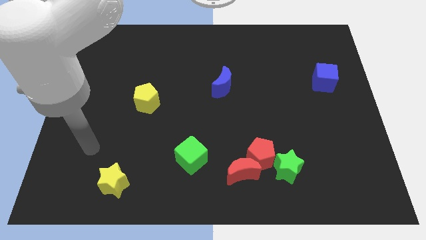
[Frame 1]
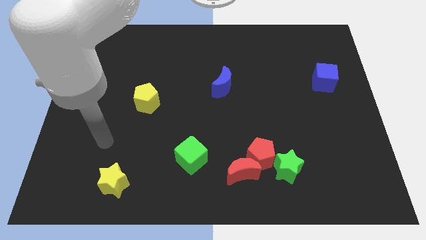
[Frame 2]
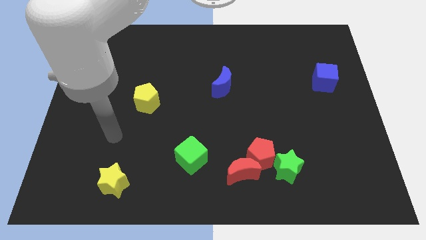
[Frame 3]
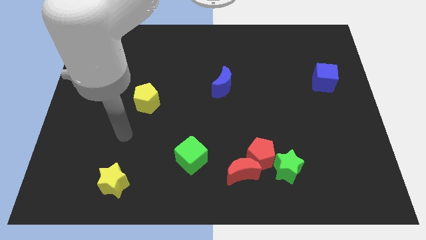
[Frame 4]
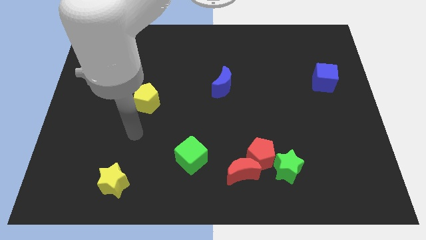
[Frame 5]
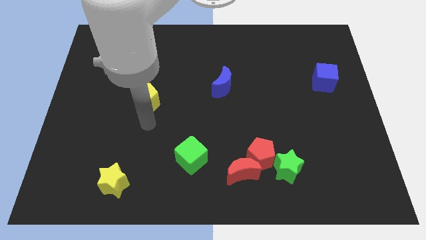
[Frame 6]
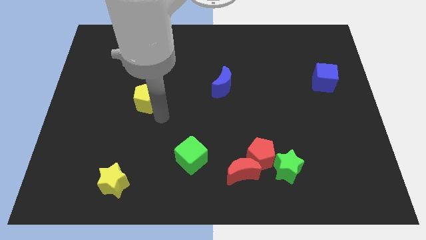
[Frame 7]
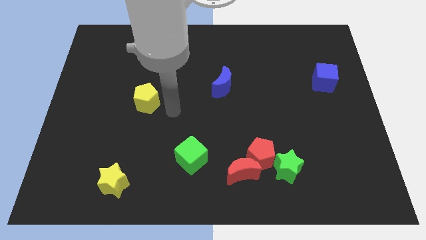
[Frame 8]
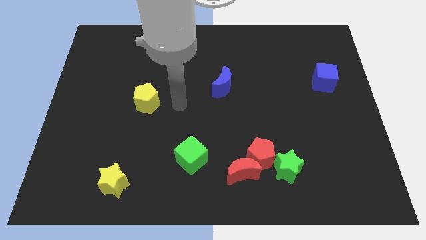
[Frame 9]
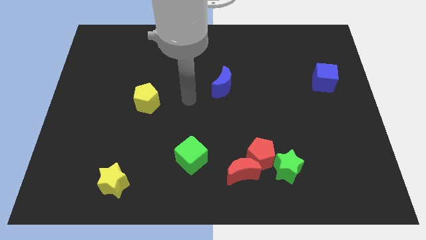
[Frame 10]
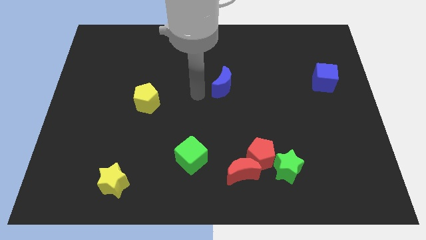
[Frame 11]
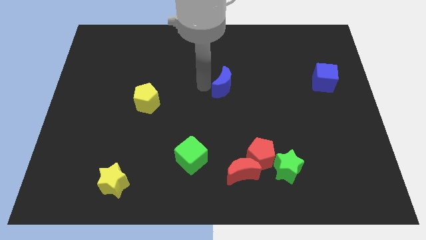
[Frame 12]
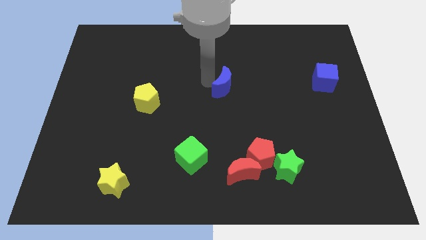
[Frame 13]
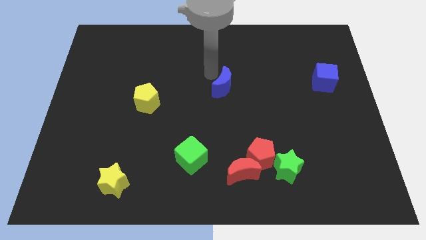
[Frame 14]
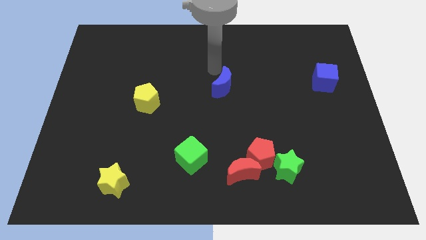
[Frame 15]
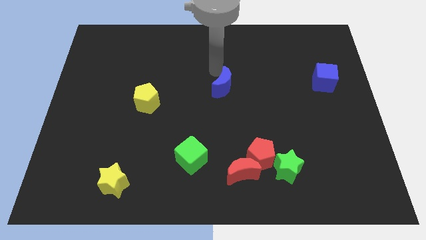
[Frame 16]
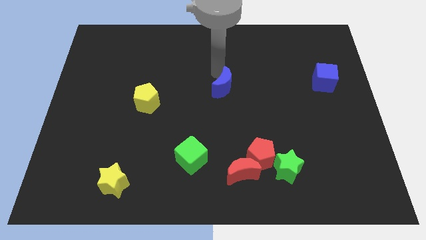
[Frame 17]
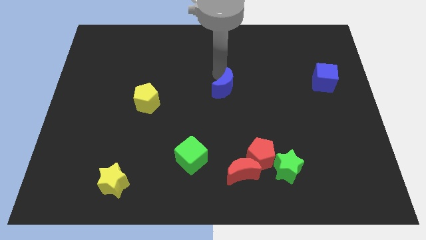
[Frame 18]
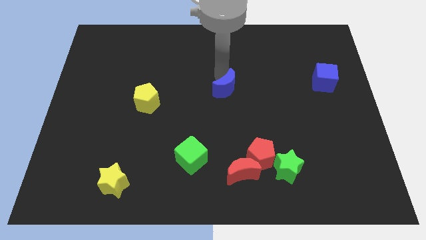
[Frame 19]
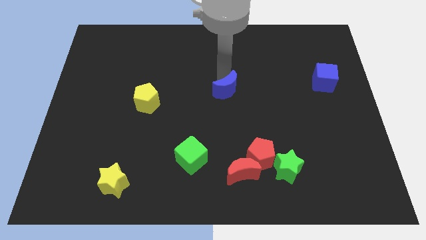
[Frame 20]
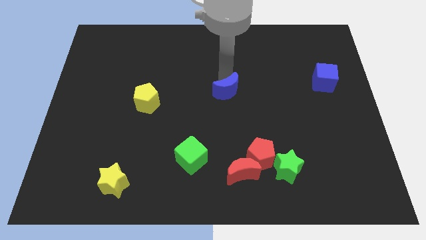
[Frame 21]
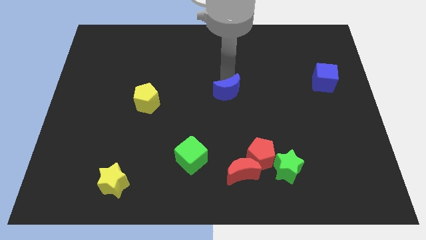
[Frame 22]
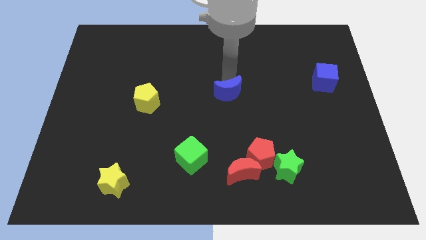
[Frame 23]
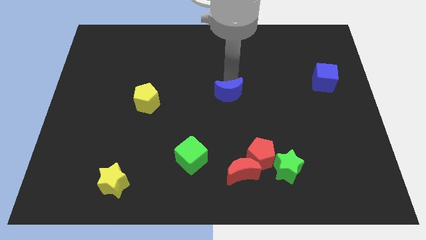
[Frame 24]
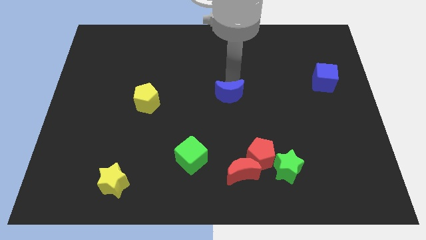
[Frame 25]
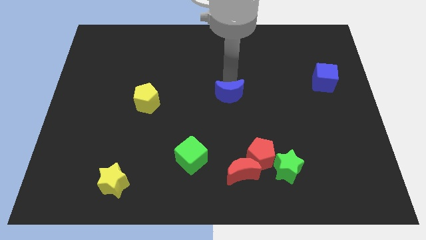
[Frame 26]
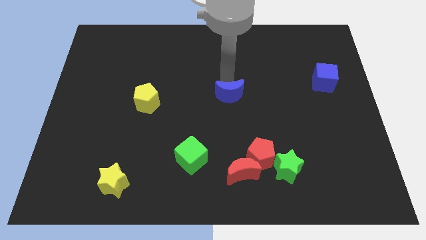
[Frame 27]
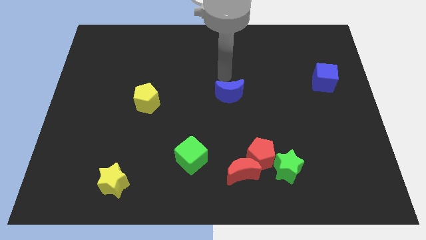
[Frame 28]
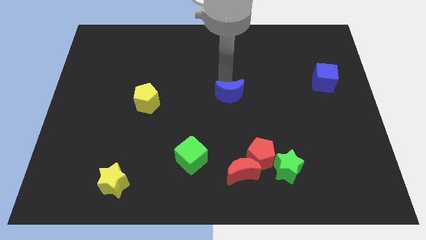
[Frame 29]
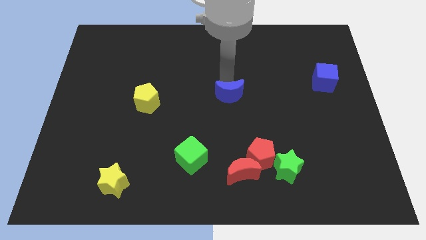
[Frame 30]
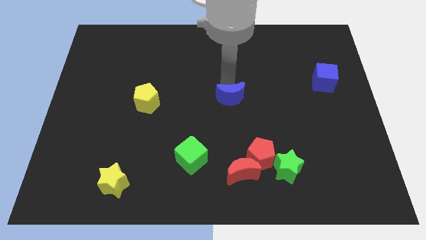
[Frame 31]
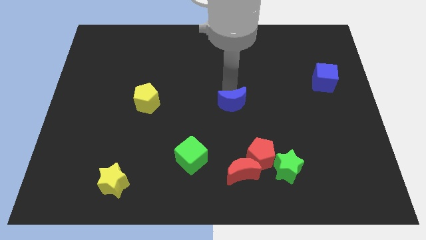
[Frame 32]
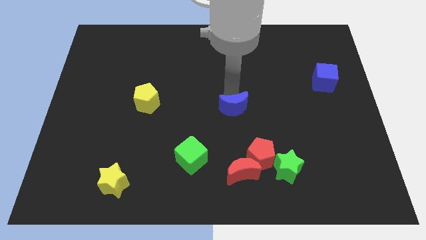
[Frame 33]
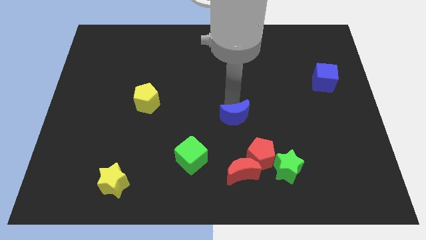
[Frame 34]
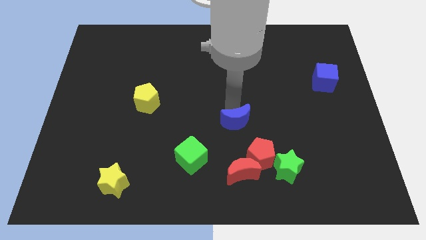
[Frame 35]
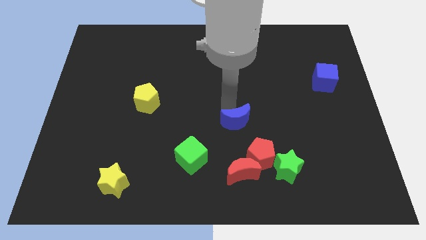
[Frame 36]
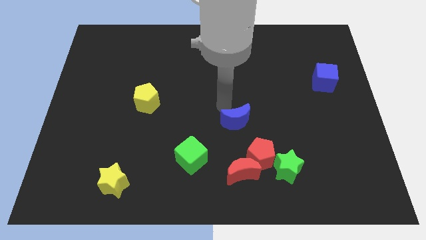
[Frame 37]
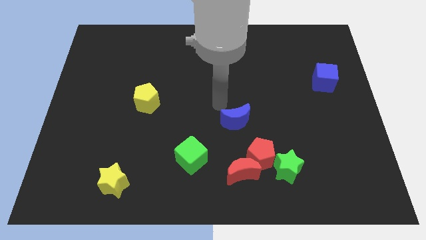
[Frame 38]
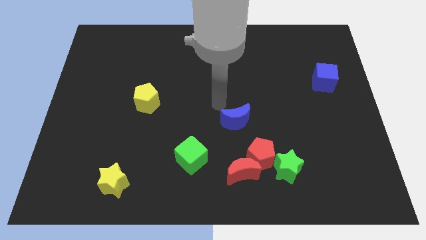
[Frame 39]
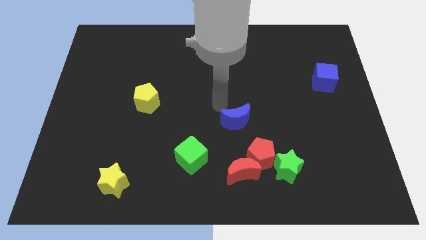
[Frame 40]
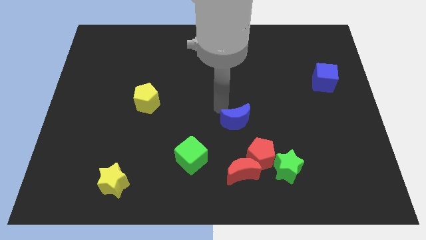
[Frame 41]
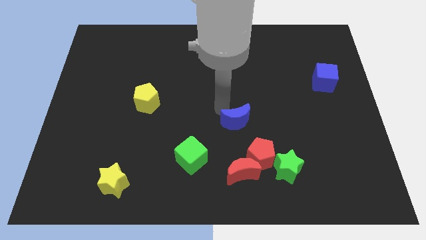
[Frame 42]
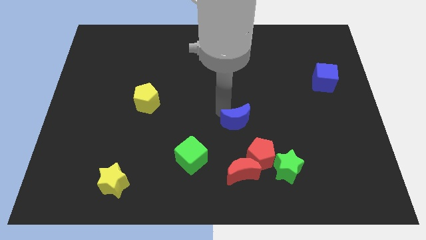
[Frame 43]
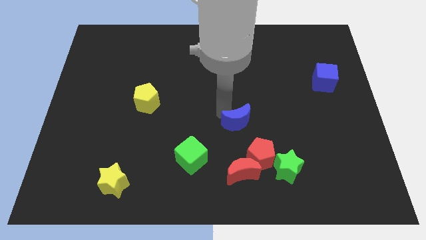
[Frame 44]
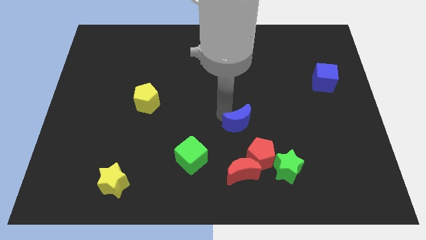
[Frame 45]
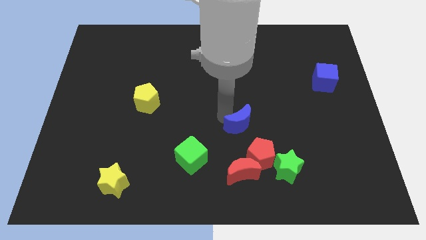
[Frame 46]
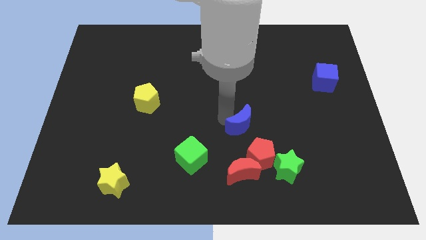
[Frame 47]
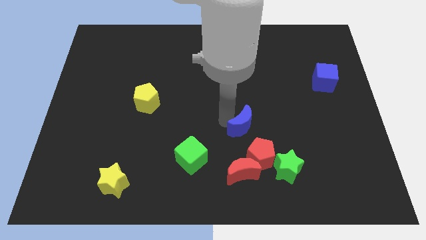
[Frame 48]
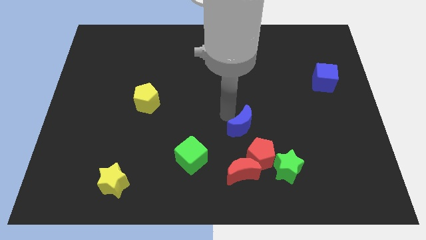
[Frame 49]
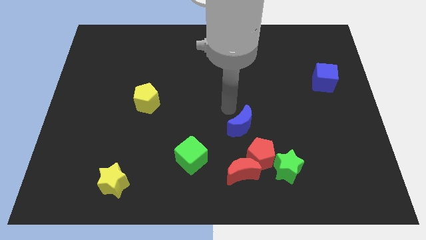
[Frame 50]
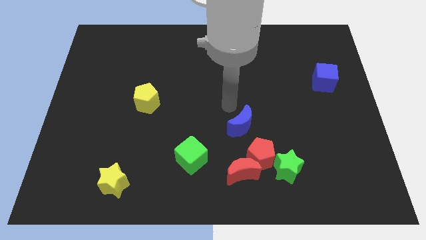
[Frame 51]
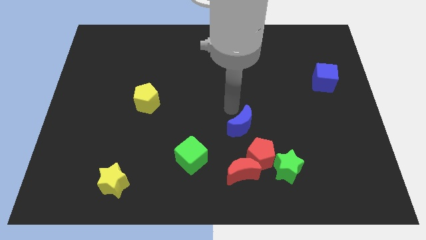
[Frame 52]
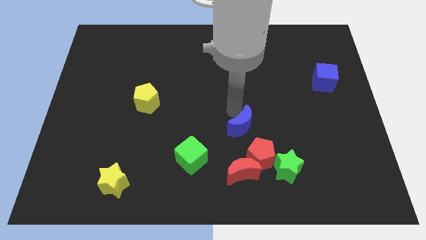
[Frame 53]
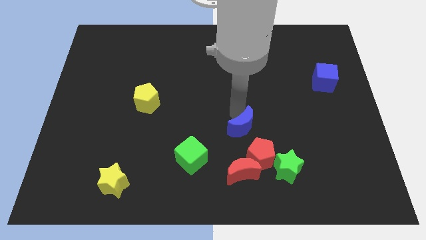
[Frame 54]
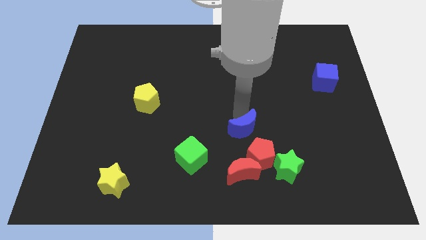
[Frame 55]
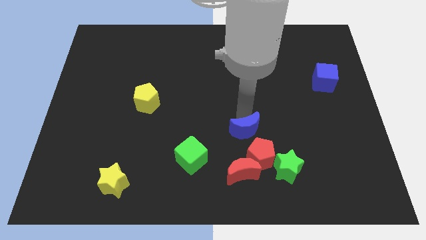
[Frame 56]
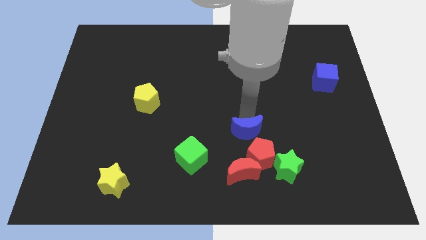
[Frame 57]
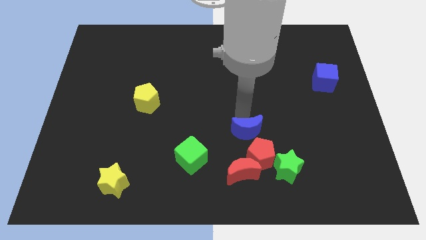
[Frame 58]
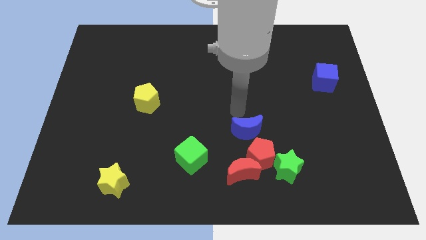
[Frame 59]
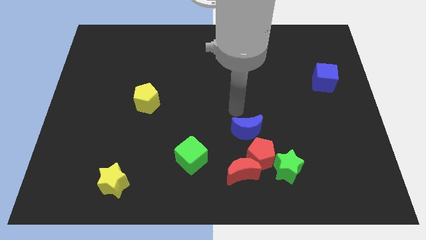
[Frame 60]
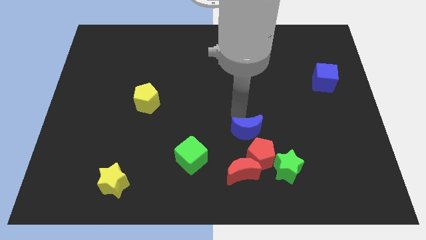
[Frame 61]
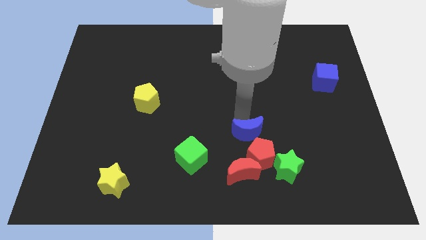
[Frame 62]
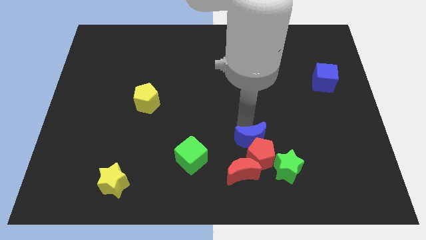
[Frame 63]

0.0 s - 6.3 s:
push the blue moon towards the red pentagon
